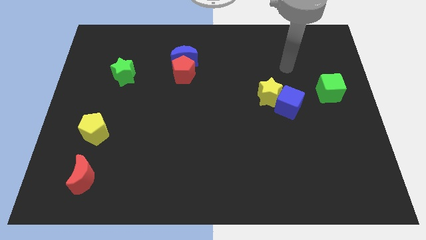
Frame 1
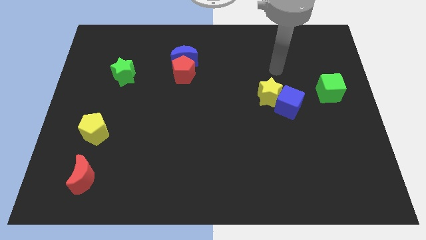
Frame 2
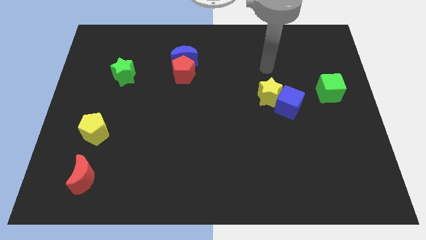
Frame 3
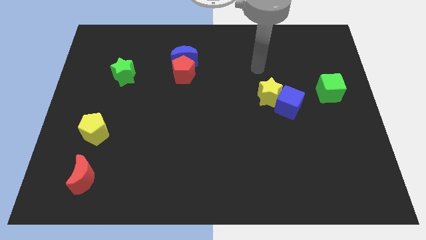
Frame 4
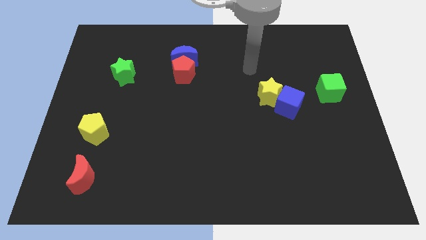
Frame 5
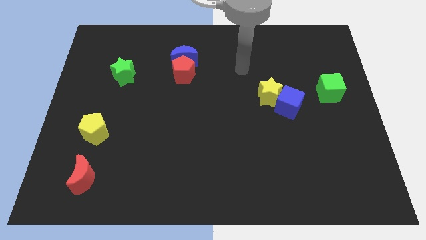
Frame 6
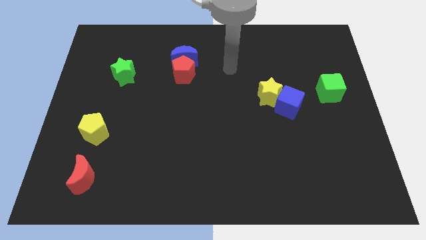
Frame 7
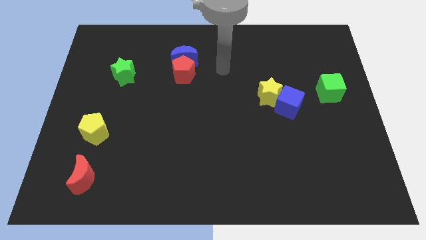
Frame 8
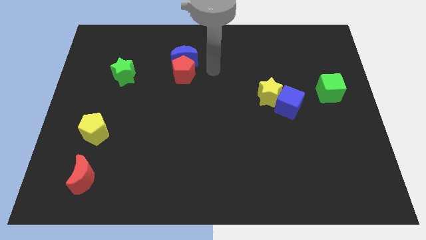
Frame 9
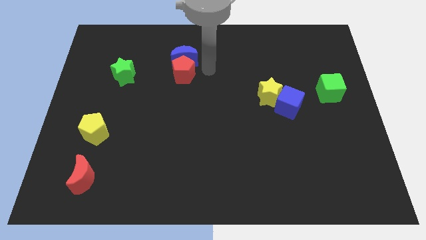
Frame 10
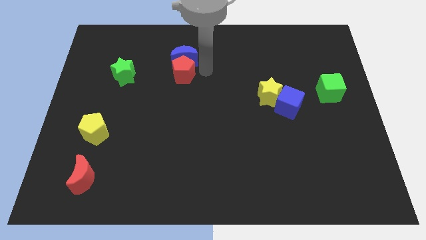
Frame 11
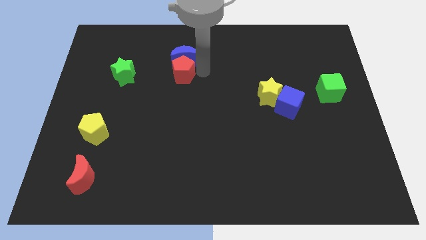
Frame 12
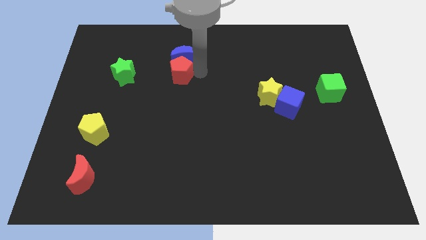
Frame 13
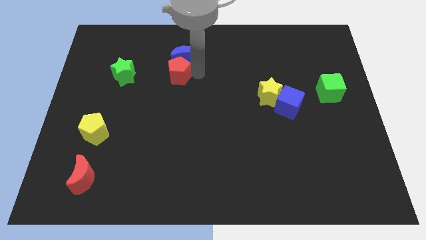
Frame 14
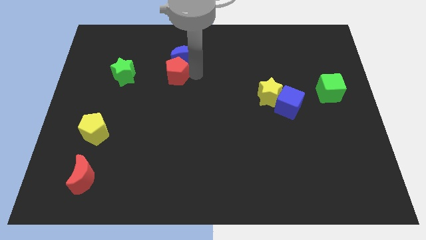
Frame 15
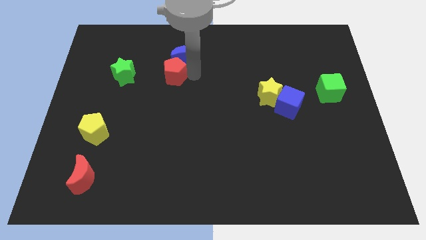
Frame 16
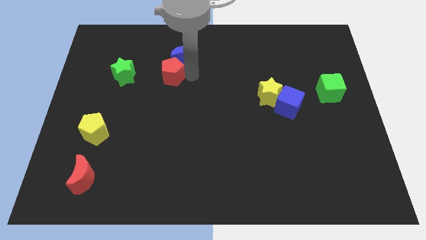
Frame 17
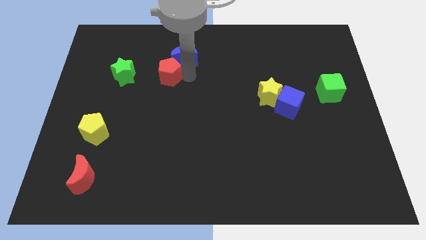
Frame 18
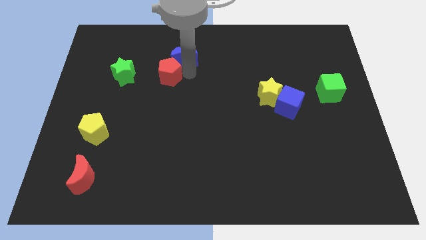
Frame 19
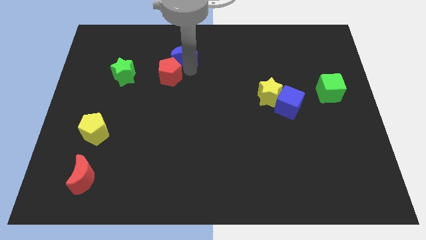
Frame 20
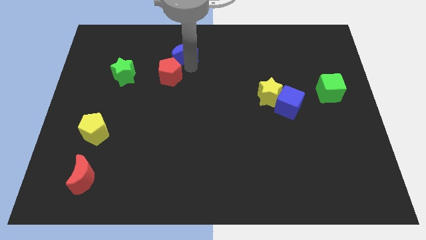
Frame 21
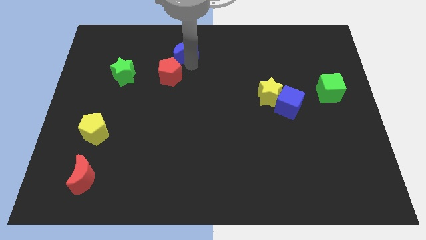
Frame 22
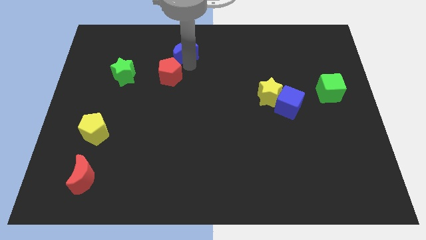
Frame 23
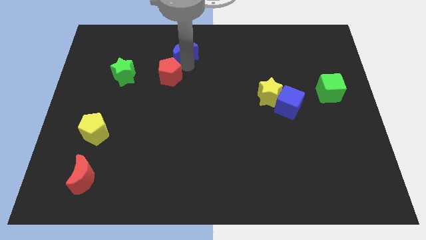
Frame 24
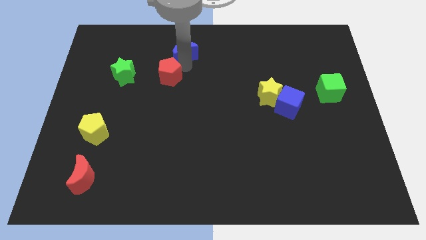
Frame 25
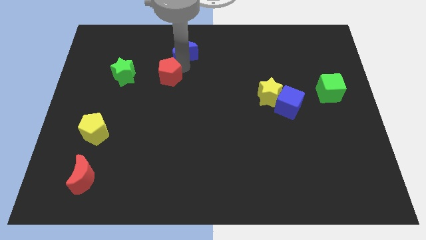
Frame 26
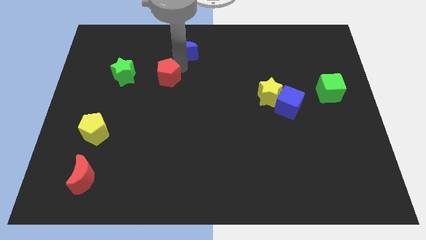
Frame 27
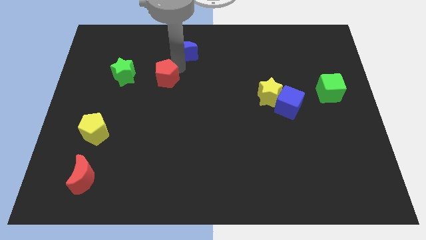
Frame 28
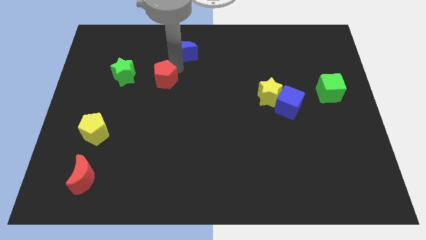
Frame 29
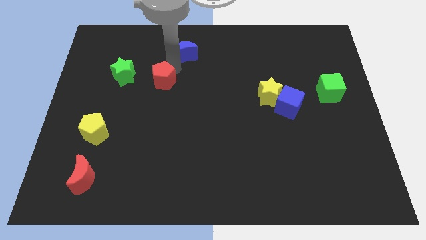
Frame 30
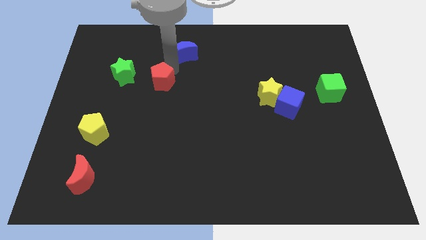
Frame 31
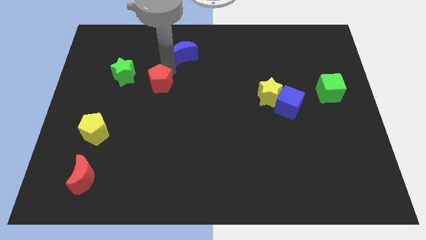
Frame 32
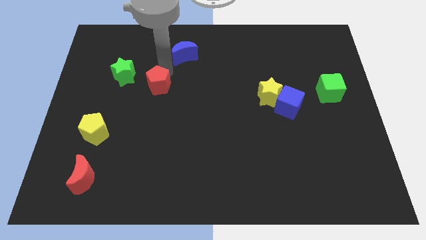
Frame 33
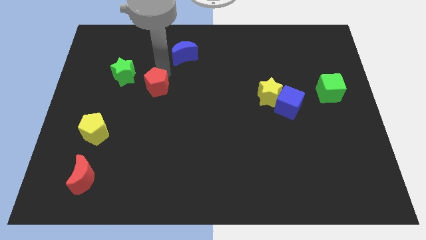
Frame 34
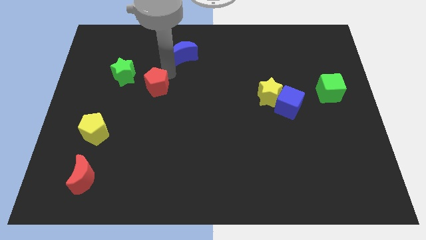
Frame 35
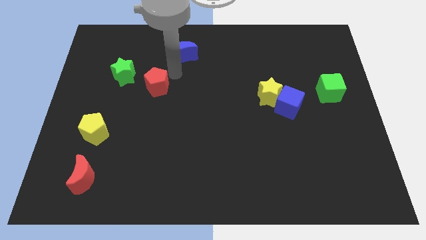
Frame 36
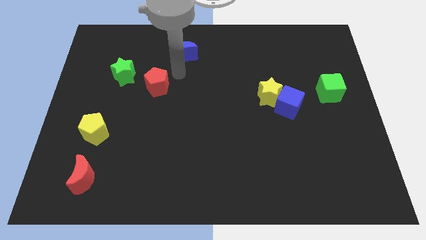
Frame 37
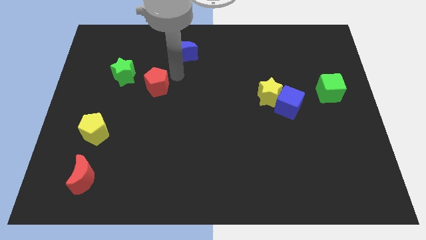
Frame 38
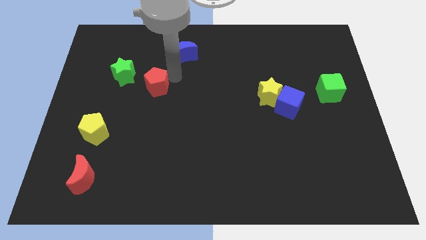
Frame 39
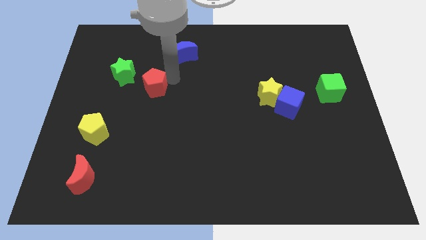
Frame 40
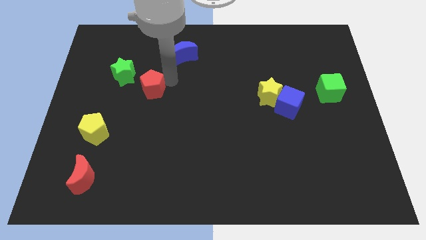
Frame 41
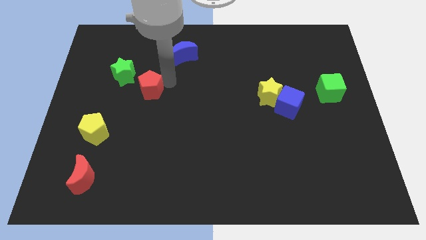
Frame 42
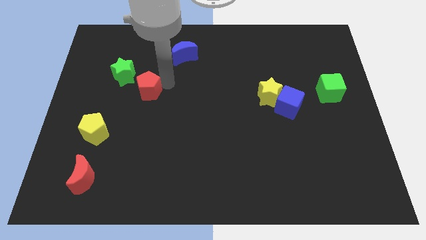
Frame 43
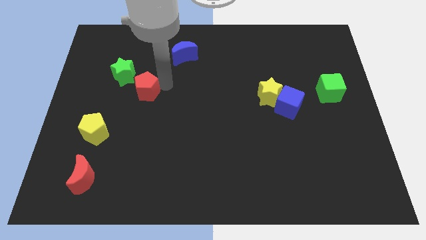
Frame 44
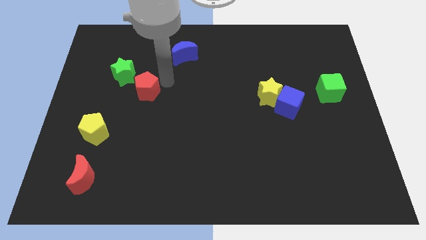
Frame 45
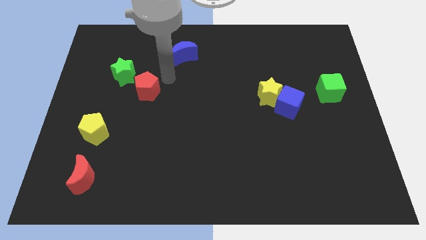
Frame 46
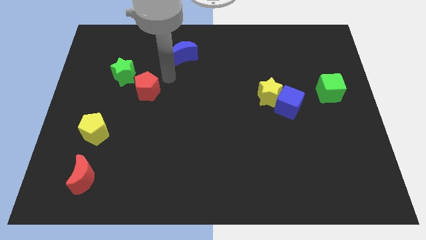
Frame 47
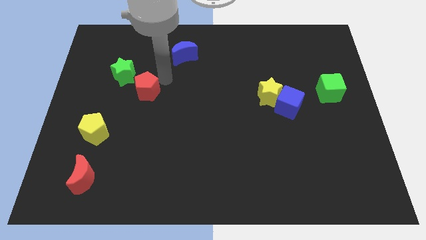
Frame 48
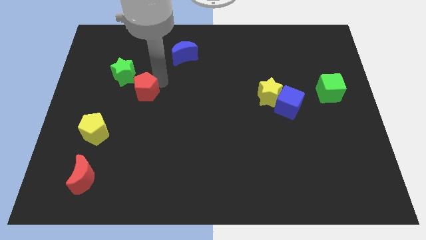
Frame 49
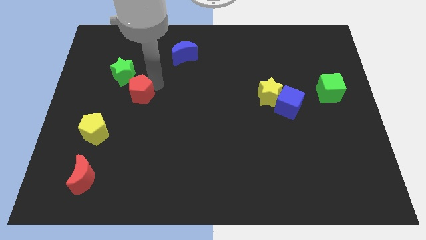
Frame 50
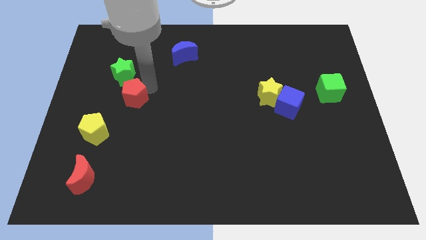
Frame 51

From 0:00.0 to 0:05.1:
move the red pentagon below the green star

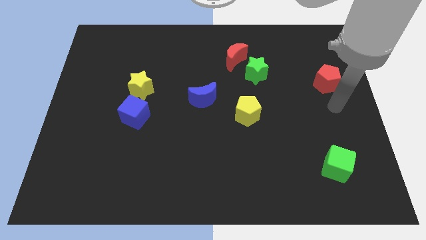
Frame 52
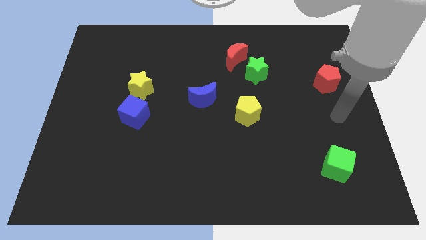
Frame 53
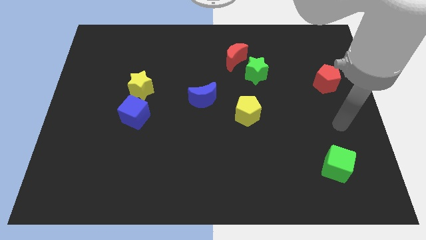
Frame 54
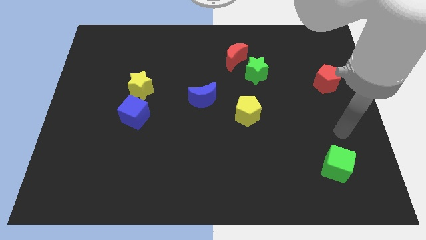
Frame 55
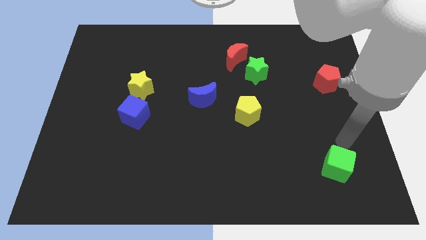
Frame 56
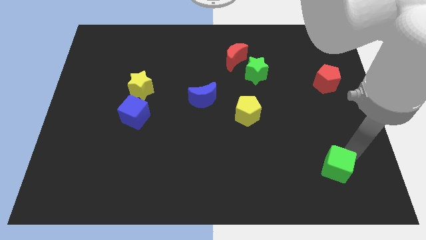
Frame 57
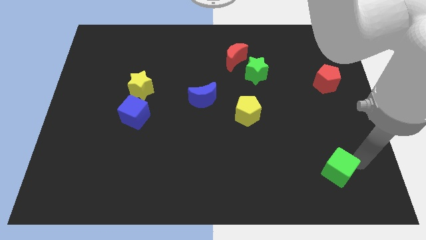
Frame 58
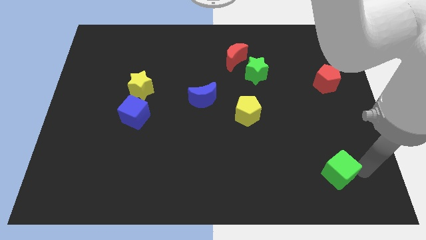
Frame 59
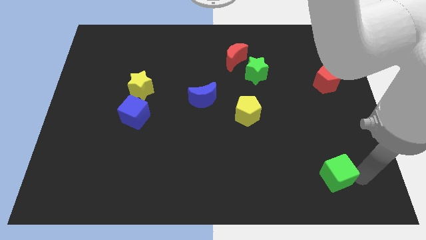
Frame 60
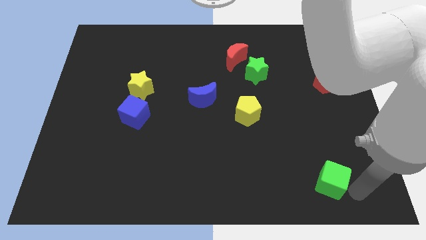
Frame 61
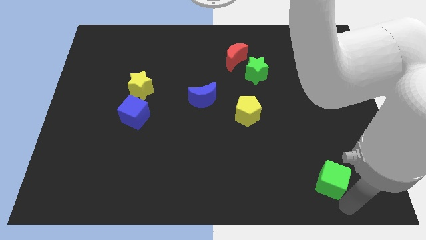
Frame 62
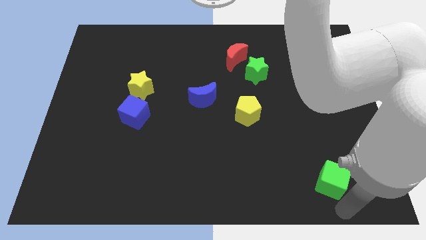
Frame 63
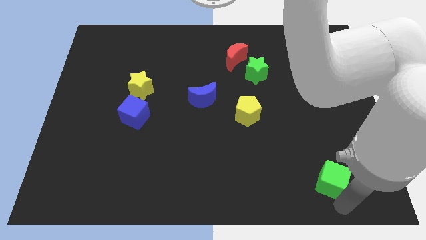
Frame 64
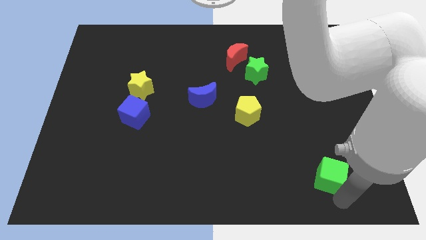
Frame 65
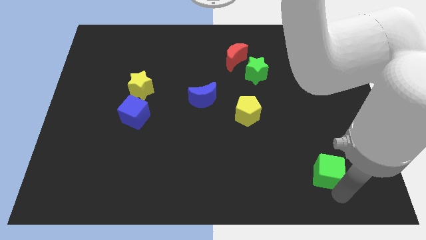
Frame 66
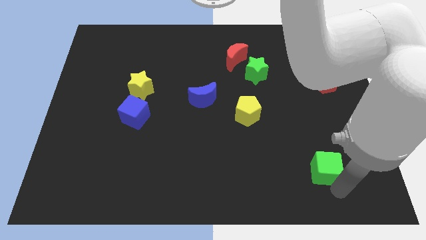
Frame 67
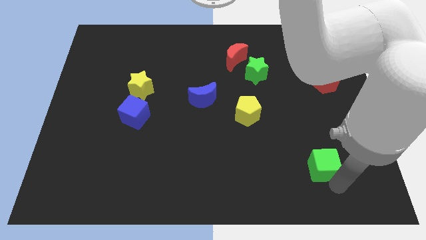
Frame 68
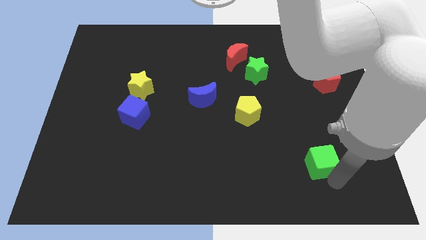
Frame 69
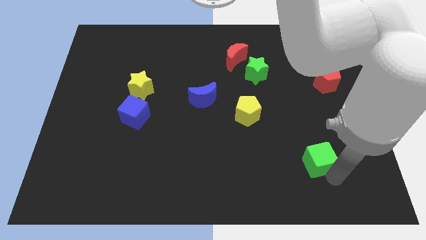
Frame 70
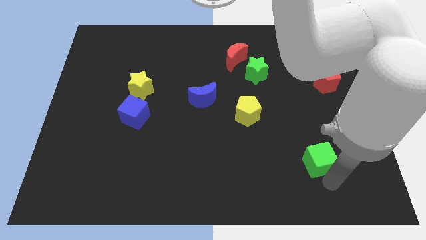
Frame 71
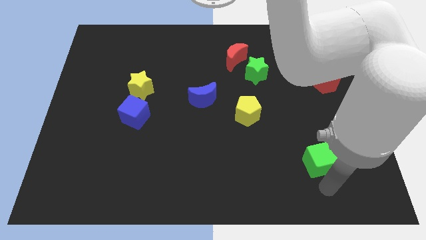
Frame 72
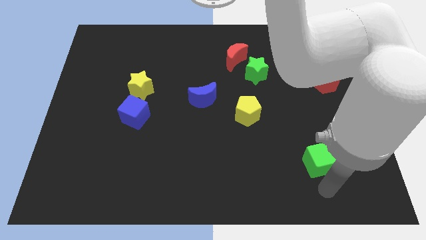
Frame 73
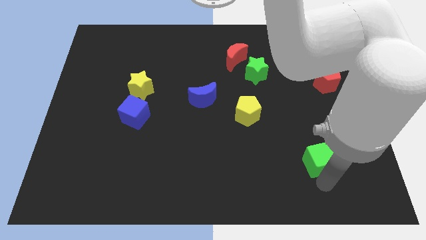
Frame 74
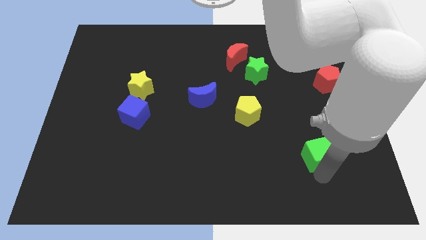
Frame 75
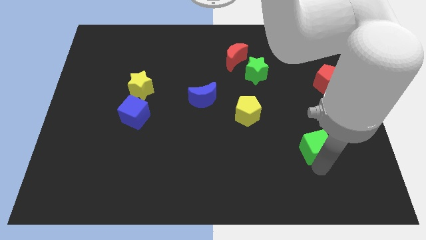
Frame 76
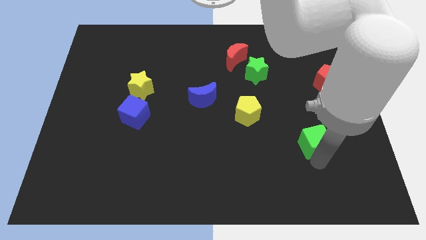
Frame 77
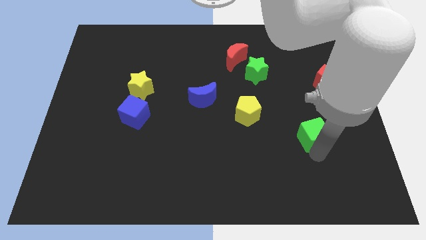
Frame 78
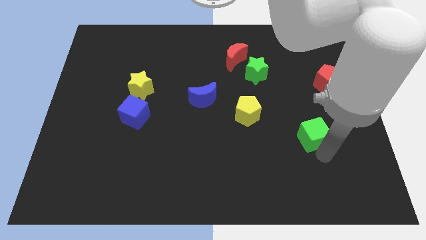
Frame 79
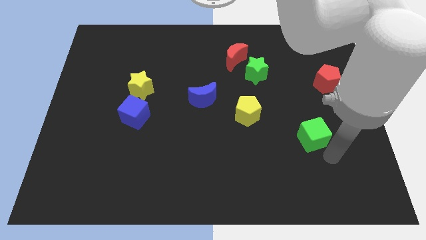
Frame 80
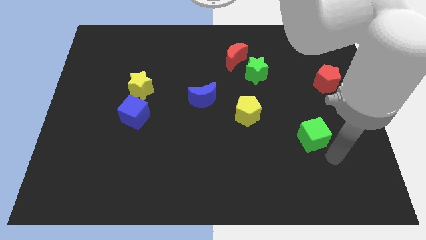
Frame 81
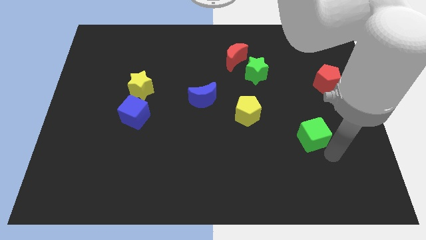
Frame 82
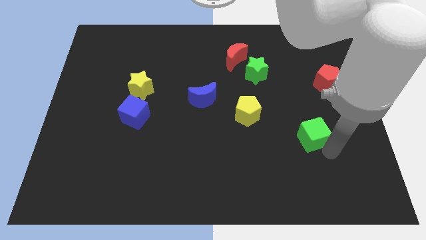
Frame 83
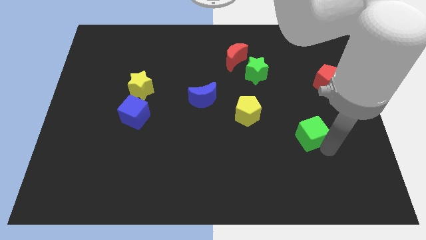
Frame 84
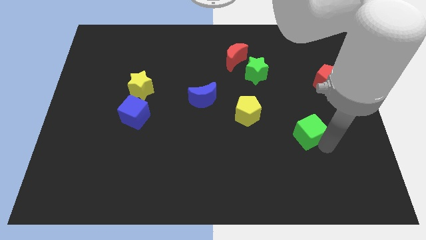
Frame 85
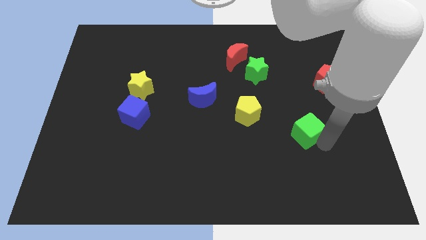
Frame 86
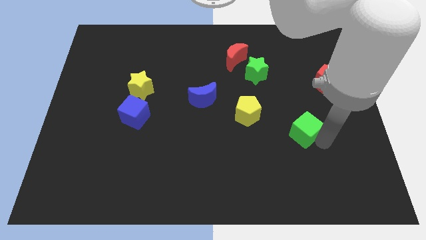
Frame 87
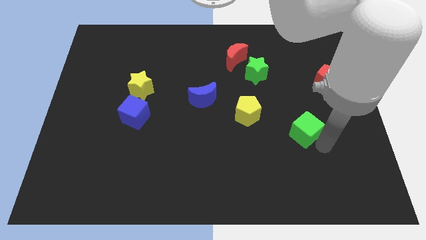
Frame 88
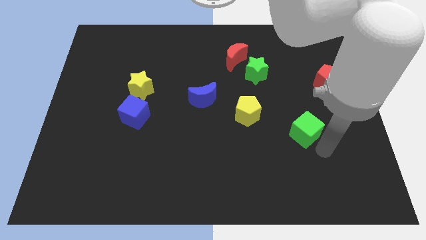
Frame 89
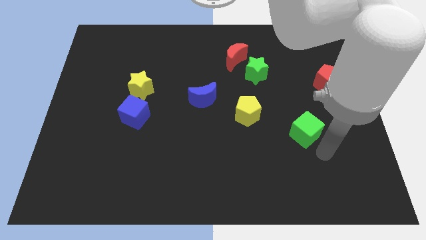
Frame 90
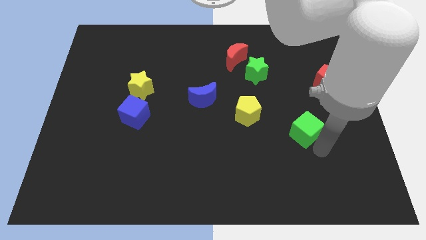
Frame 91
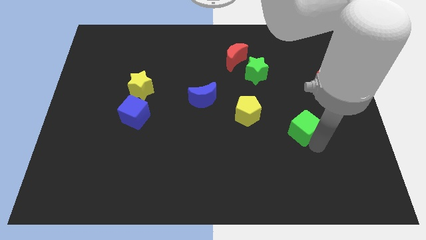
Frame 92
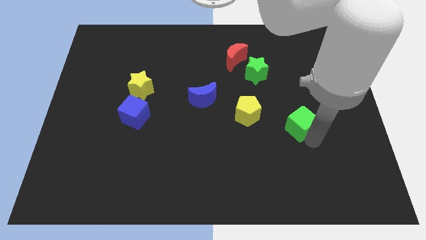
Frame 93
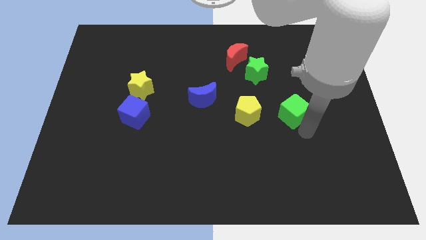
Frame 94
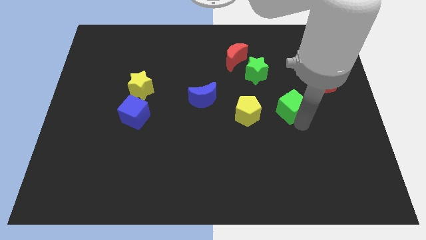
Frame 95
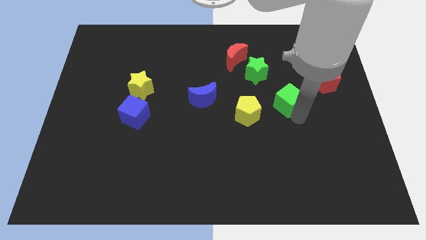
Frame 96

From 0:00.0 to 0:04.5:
slide the green cube diagonally up and to the right of the yellow pentagon
